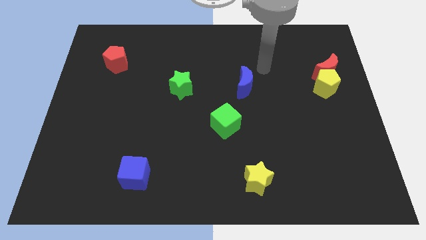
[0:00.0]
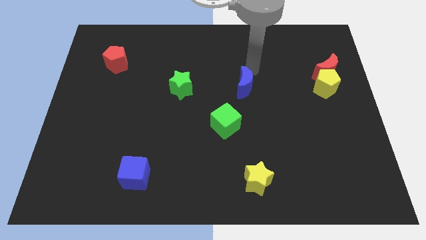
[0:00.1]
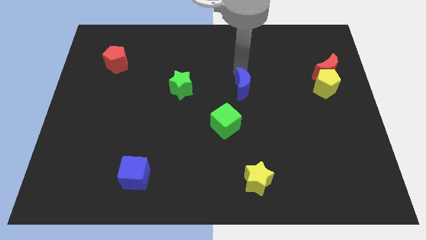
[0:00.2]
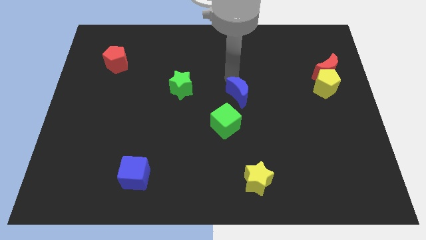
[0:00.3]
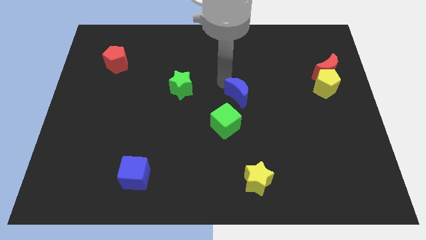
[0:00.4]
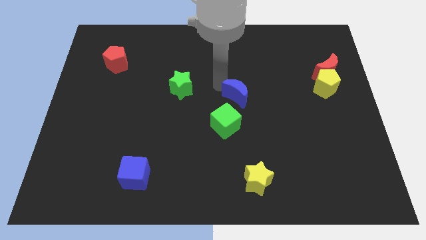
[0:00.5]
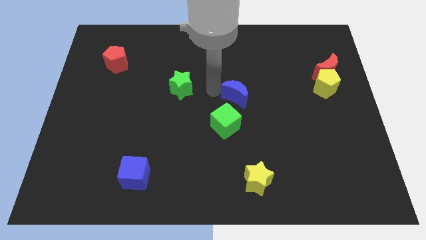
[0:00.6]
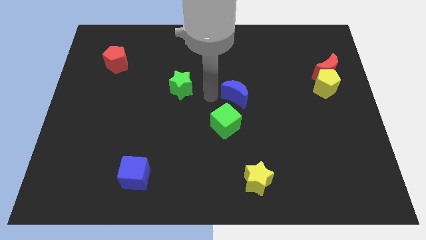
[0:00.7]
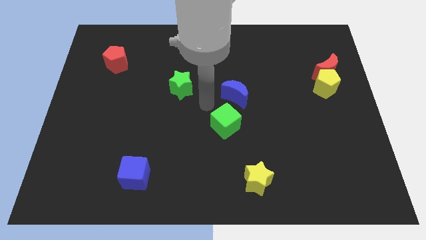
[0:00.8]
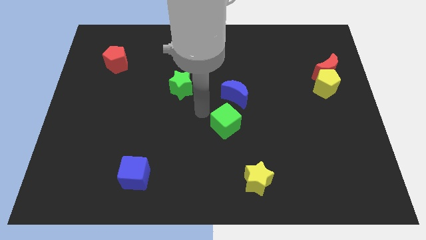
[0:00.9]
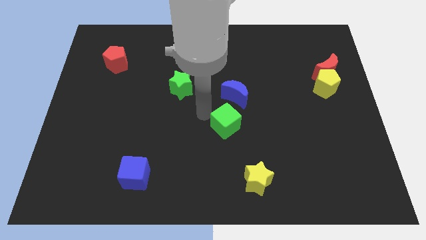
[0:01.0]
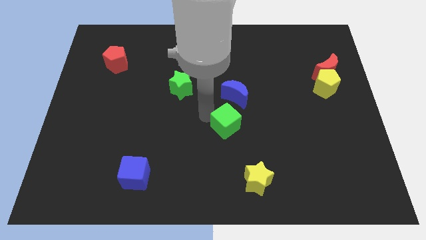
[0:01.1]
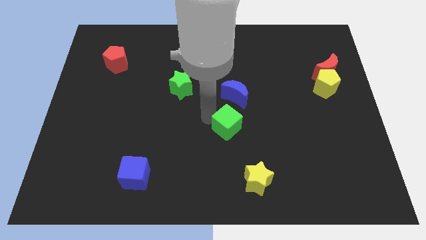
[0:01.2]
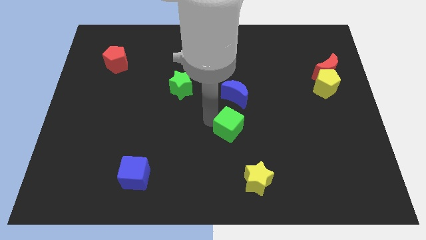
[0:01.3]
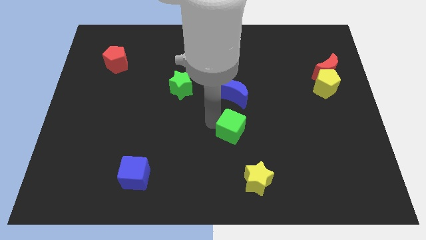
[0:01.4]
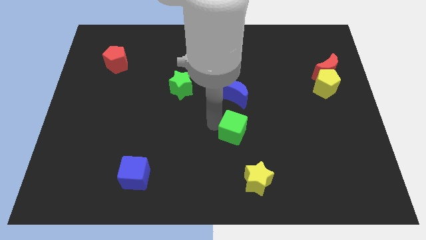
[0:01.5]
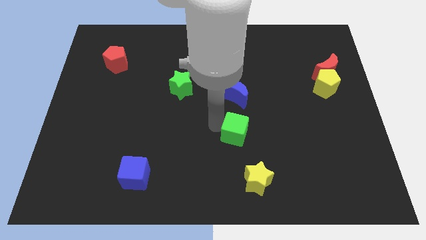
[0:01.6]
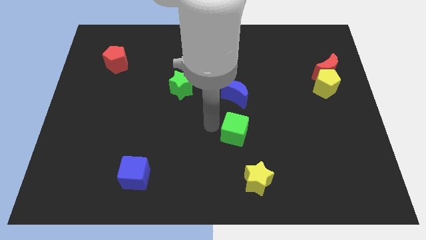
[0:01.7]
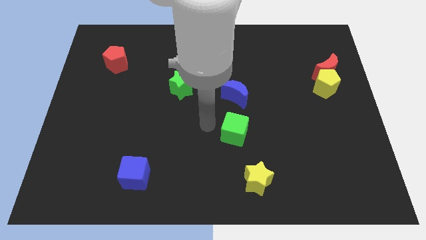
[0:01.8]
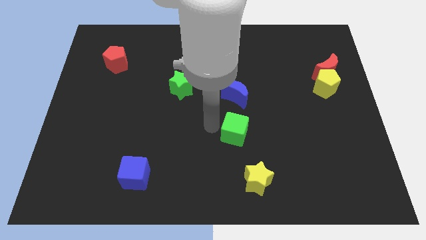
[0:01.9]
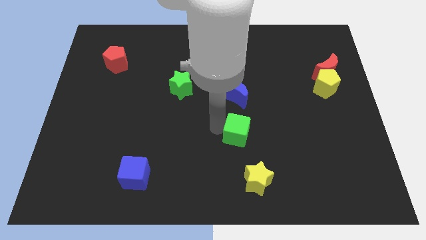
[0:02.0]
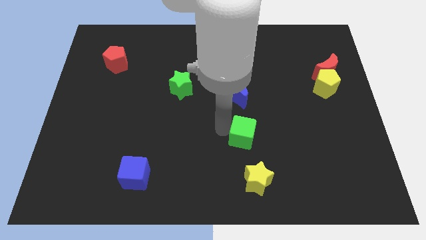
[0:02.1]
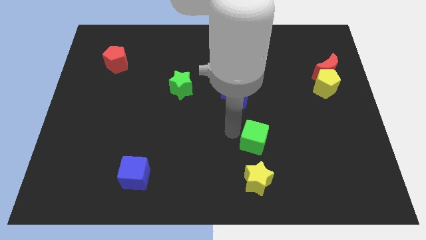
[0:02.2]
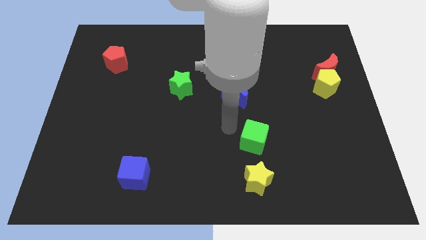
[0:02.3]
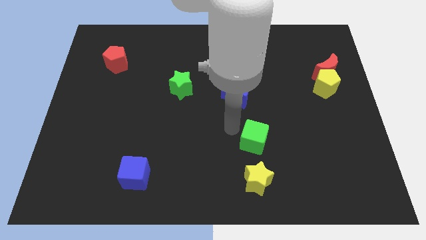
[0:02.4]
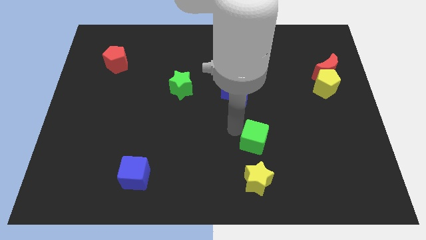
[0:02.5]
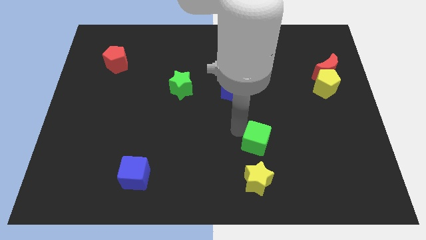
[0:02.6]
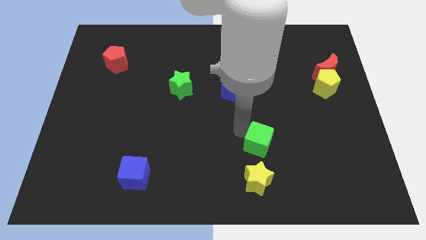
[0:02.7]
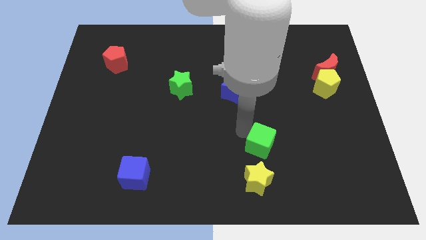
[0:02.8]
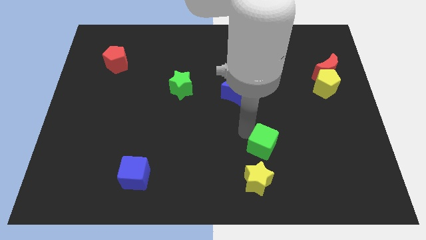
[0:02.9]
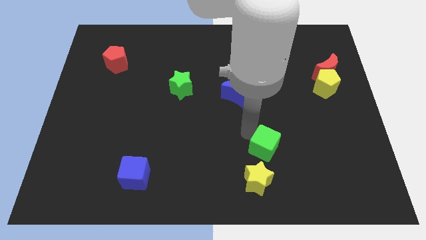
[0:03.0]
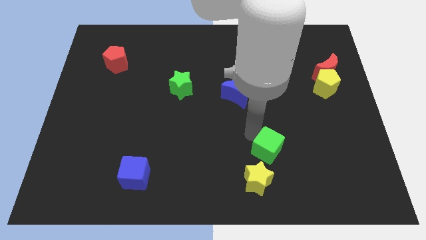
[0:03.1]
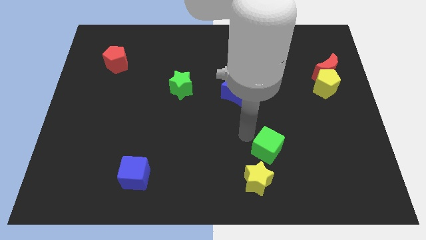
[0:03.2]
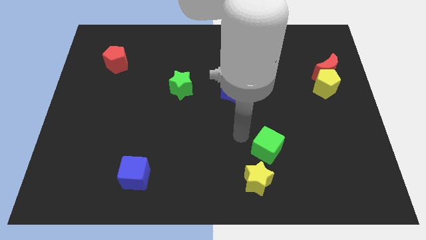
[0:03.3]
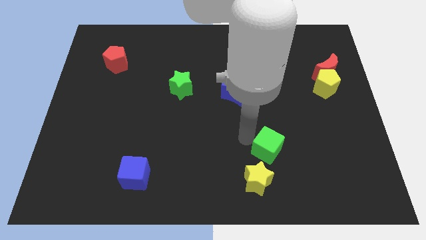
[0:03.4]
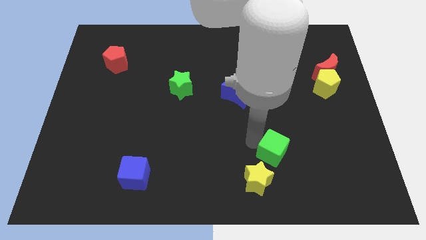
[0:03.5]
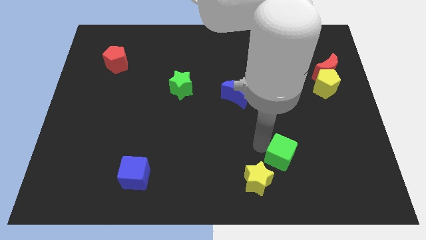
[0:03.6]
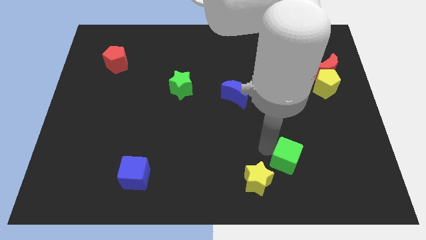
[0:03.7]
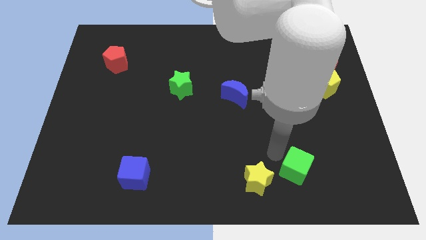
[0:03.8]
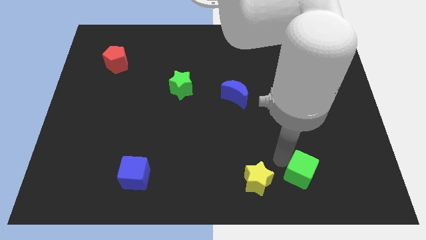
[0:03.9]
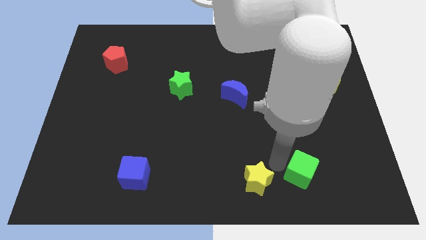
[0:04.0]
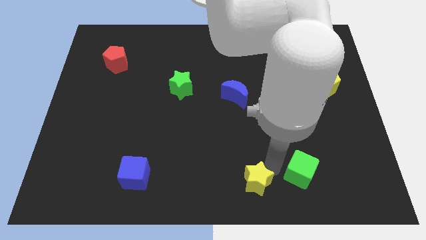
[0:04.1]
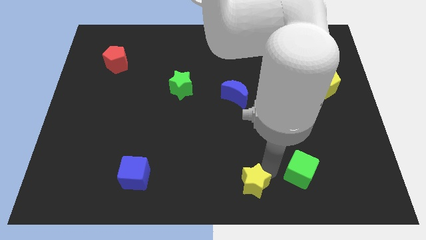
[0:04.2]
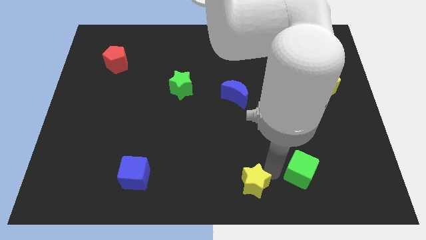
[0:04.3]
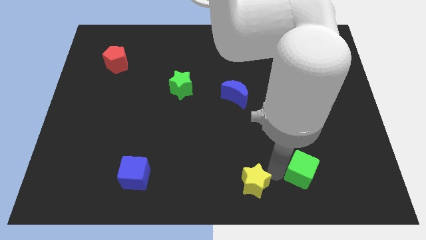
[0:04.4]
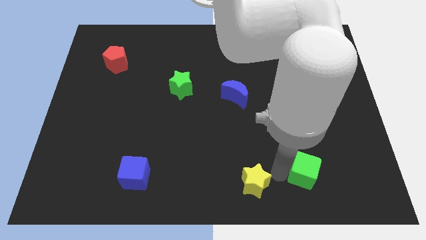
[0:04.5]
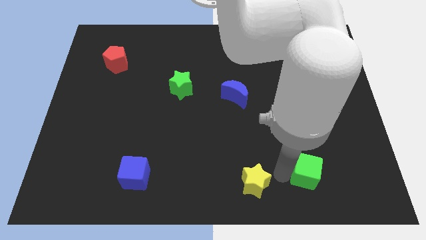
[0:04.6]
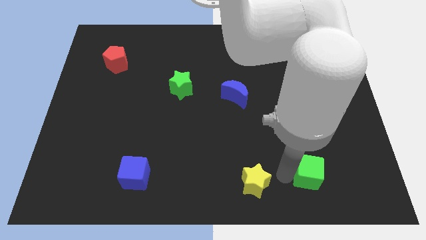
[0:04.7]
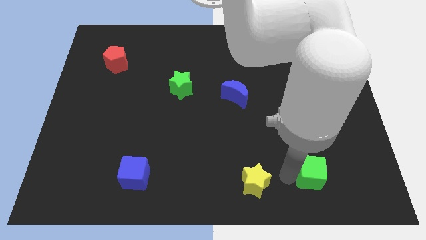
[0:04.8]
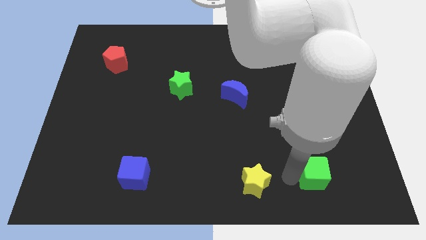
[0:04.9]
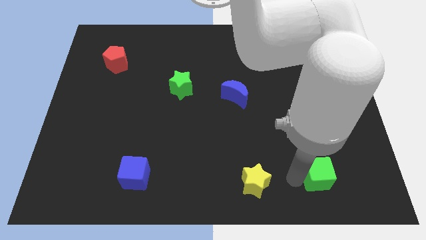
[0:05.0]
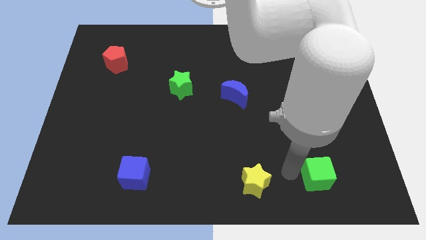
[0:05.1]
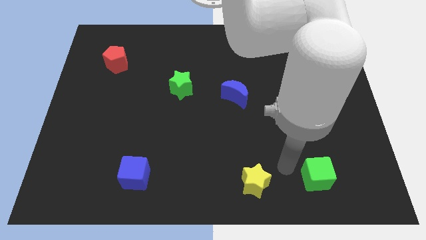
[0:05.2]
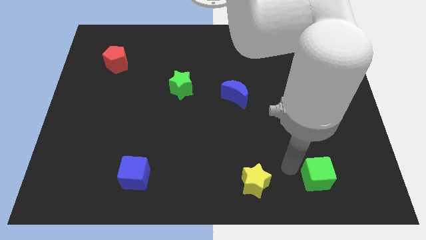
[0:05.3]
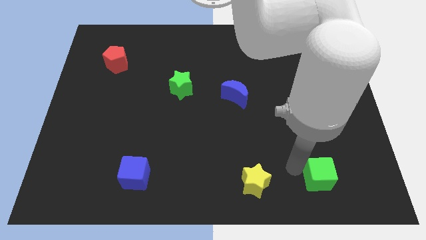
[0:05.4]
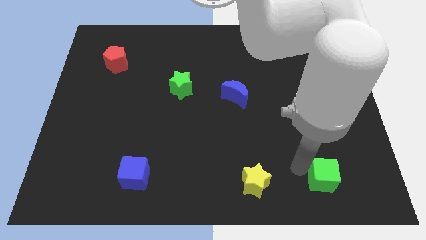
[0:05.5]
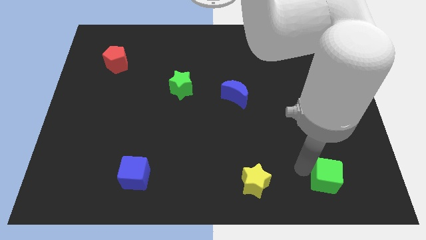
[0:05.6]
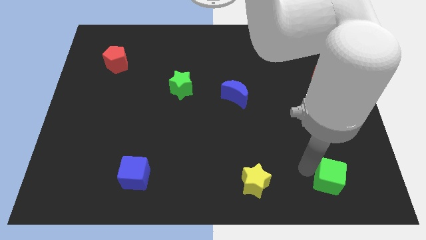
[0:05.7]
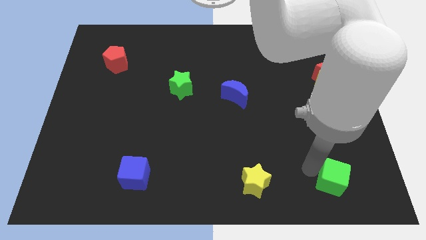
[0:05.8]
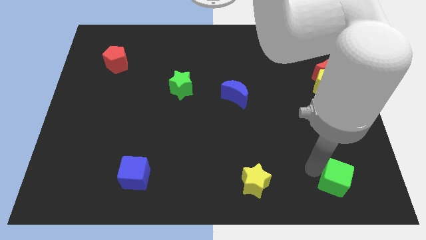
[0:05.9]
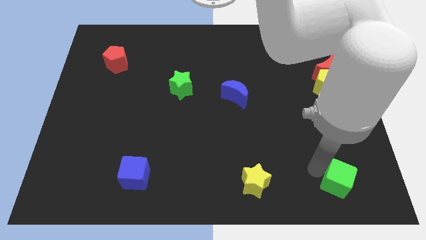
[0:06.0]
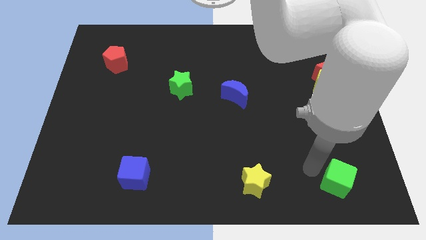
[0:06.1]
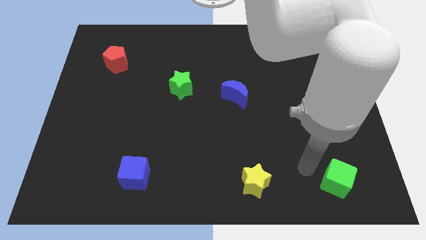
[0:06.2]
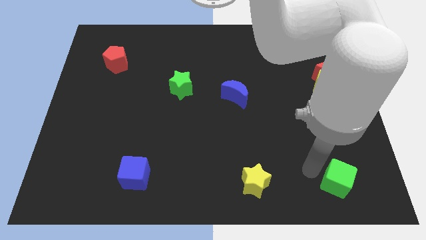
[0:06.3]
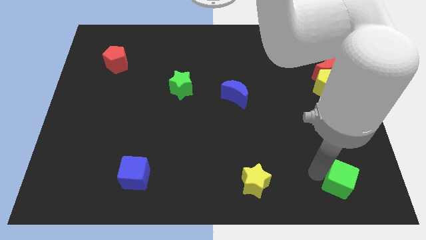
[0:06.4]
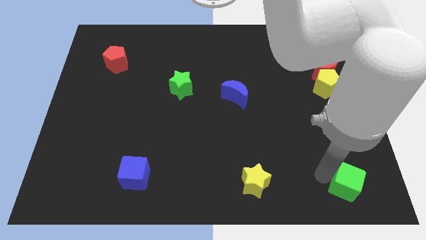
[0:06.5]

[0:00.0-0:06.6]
push the green cube to the bottom right
